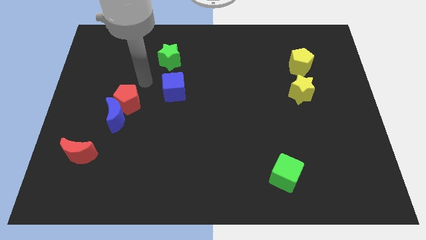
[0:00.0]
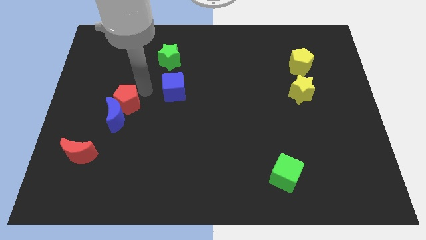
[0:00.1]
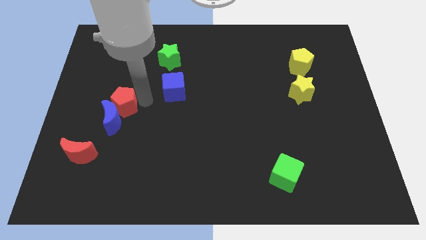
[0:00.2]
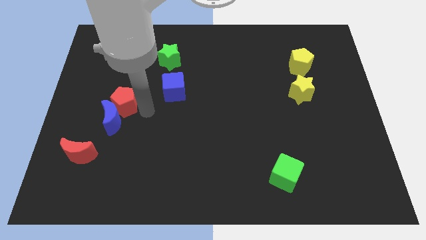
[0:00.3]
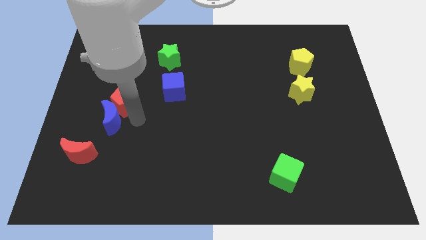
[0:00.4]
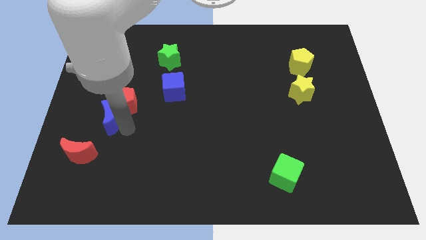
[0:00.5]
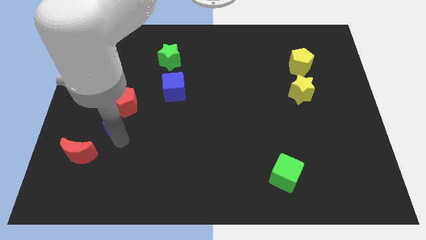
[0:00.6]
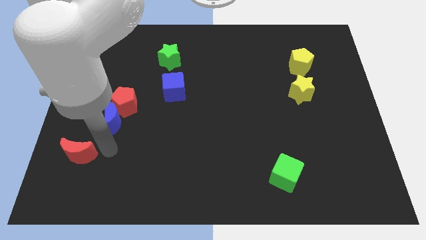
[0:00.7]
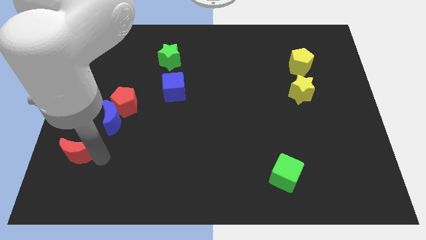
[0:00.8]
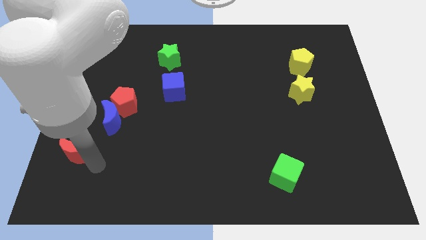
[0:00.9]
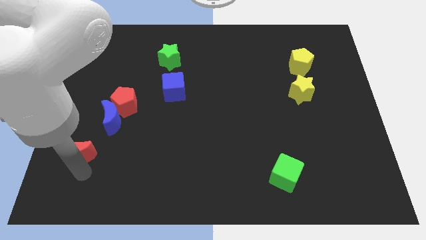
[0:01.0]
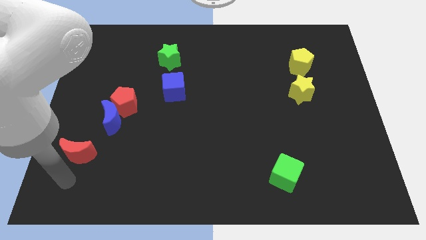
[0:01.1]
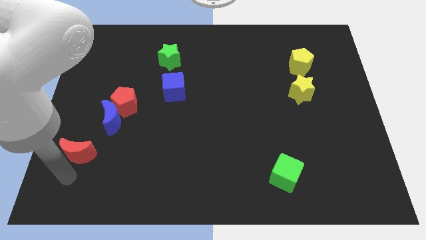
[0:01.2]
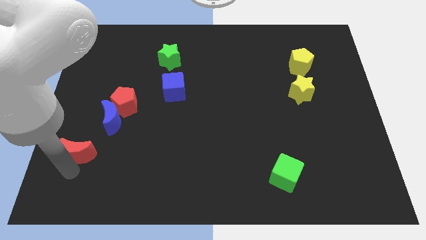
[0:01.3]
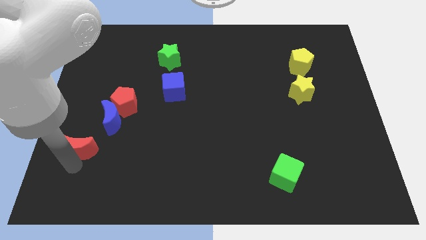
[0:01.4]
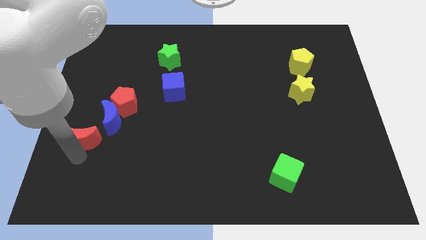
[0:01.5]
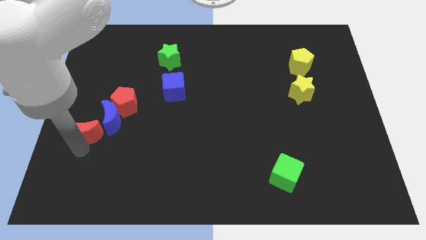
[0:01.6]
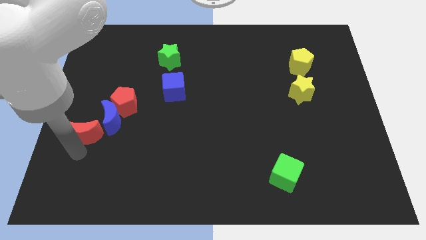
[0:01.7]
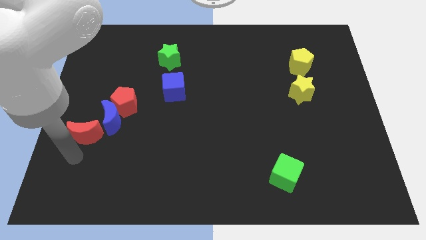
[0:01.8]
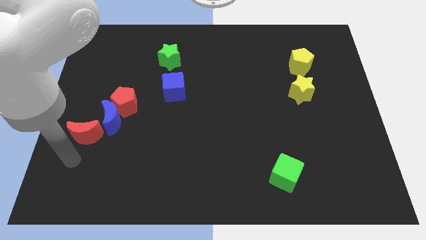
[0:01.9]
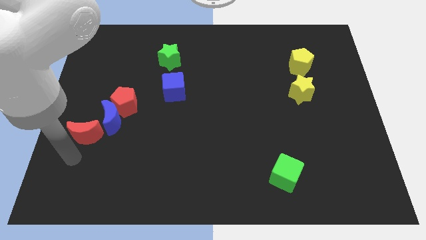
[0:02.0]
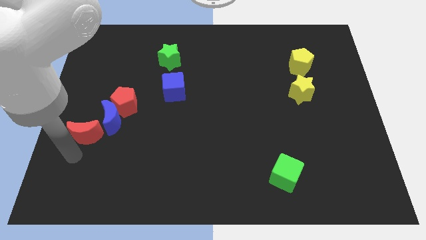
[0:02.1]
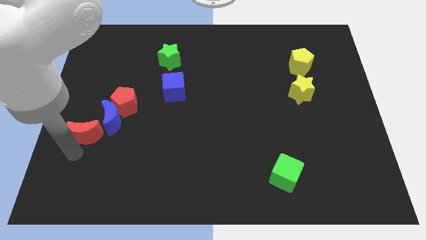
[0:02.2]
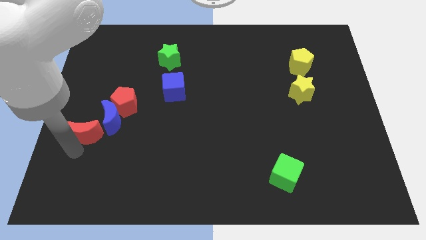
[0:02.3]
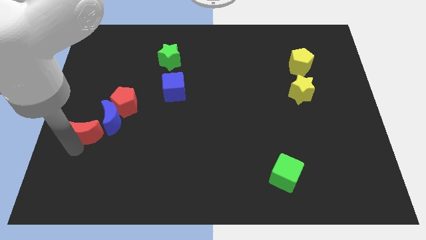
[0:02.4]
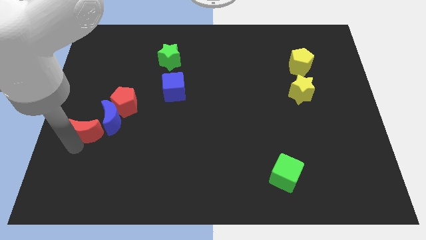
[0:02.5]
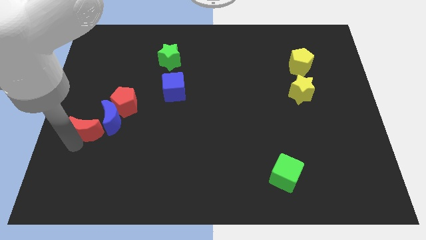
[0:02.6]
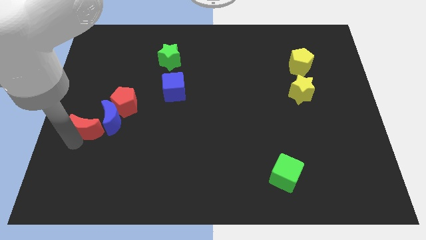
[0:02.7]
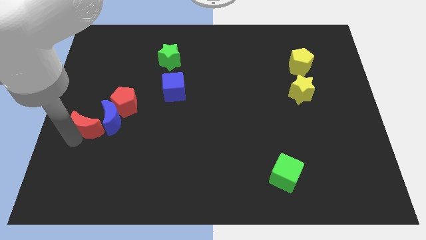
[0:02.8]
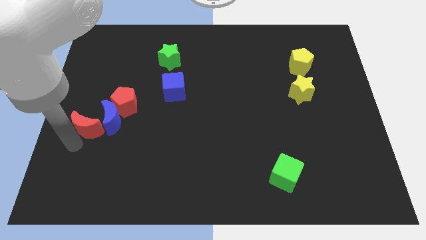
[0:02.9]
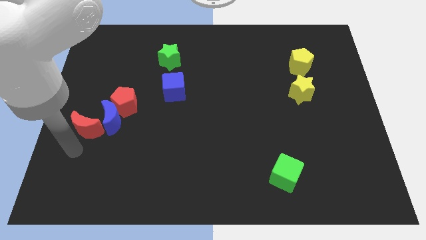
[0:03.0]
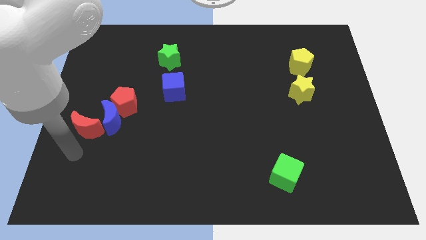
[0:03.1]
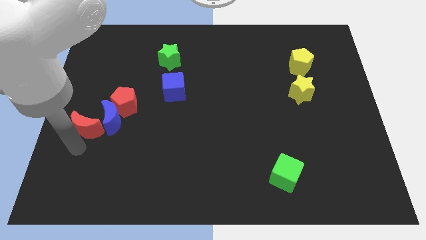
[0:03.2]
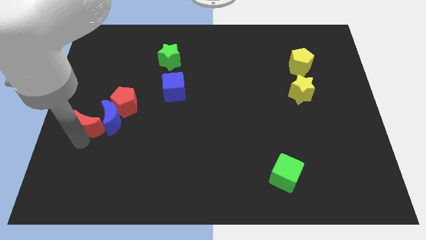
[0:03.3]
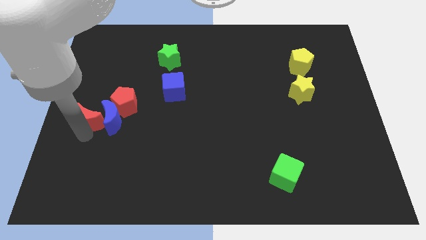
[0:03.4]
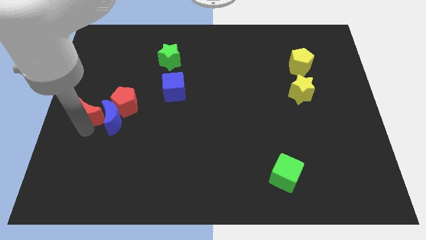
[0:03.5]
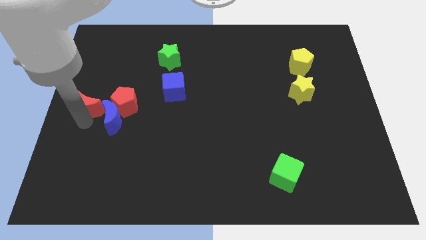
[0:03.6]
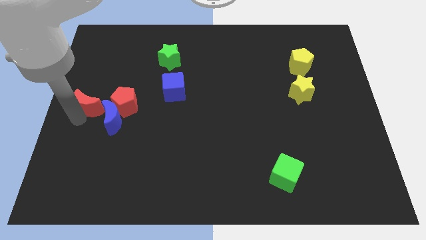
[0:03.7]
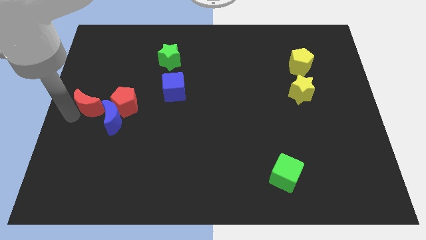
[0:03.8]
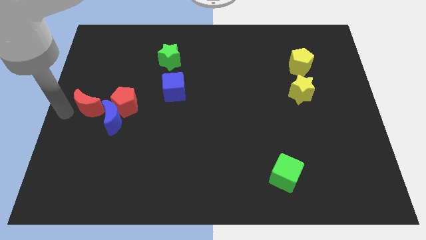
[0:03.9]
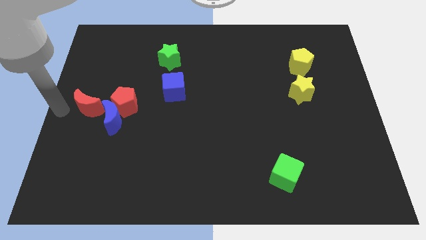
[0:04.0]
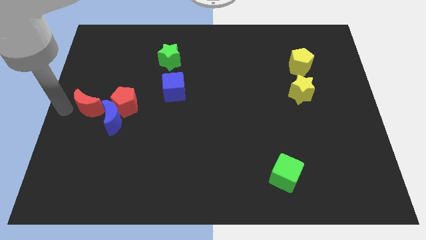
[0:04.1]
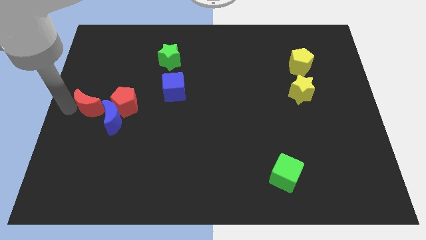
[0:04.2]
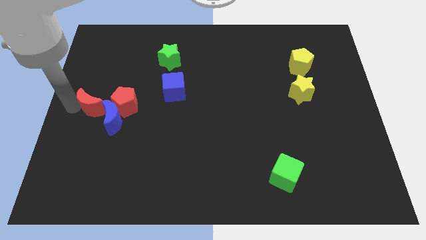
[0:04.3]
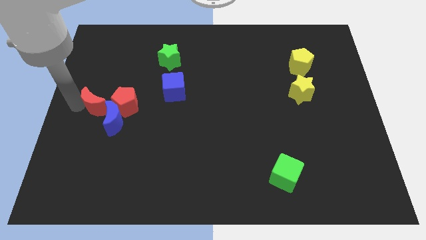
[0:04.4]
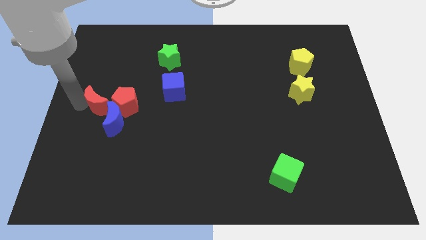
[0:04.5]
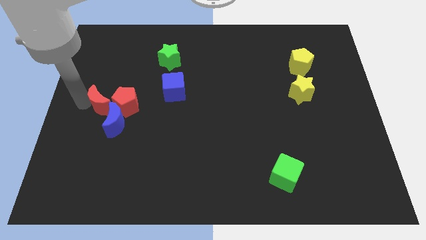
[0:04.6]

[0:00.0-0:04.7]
slide the red moon next to the red pentagon

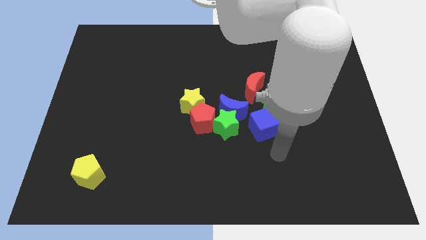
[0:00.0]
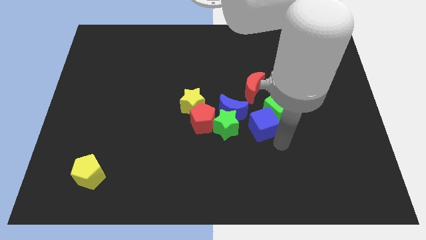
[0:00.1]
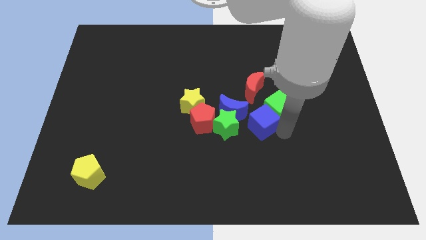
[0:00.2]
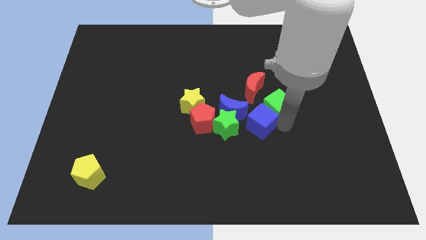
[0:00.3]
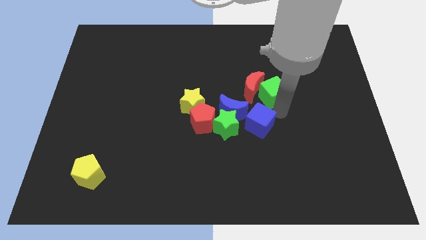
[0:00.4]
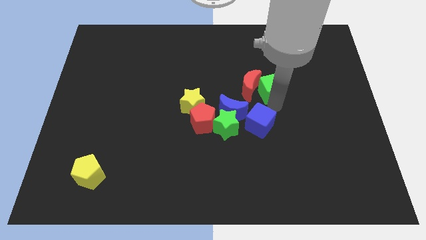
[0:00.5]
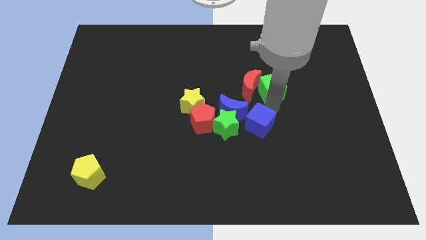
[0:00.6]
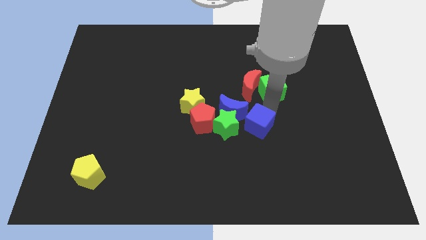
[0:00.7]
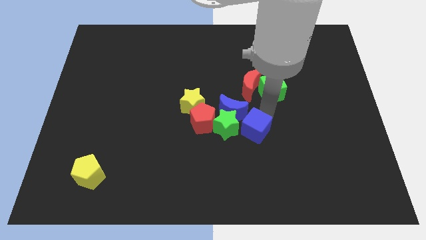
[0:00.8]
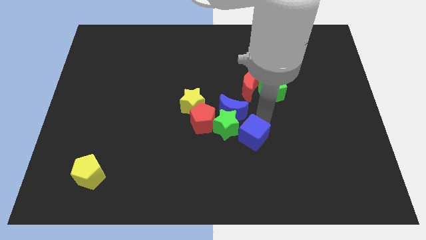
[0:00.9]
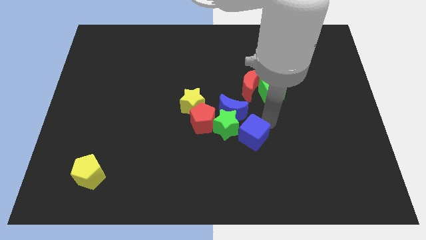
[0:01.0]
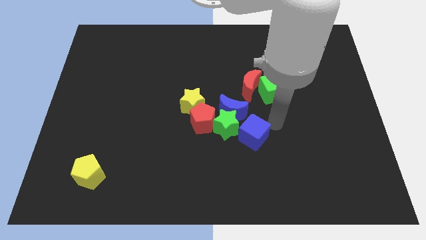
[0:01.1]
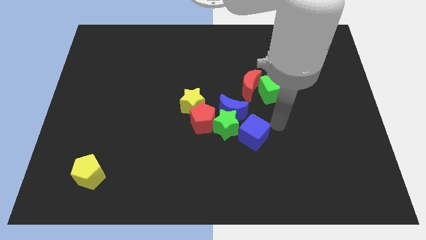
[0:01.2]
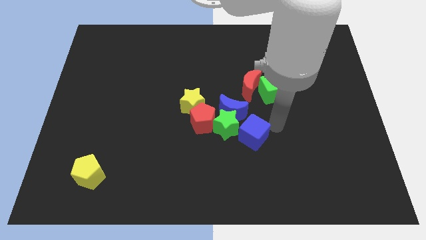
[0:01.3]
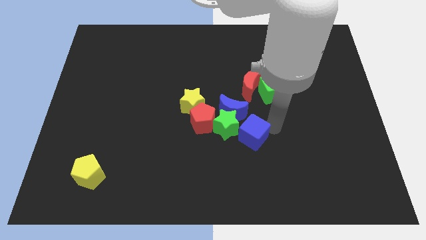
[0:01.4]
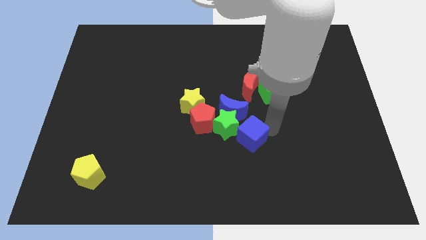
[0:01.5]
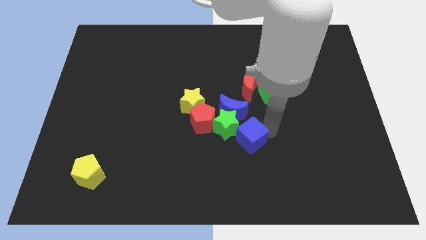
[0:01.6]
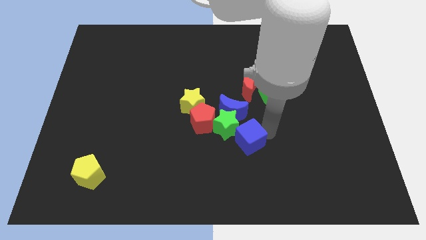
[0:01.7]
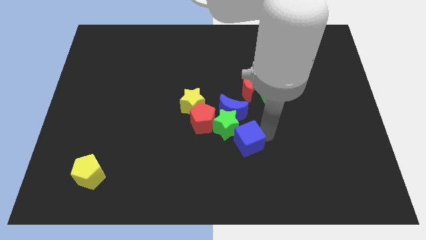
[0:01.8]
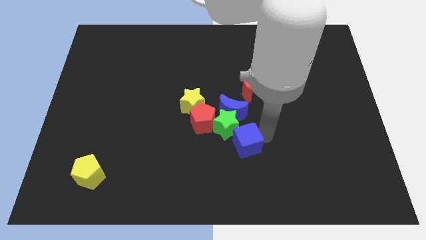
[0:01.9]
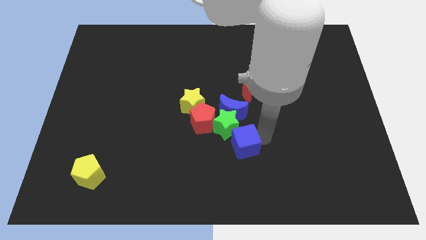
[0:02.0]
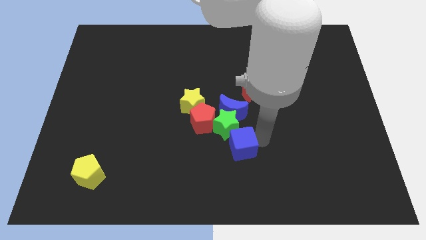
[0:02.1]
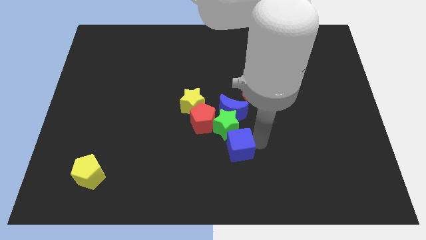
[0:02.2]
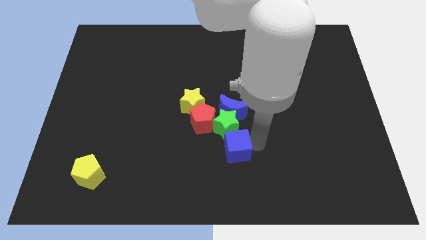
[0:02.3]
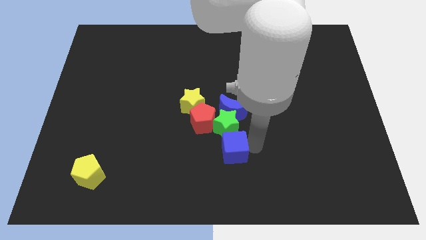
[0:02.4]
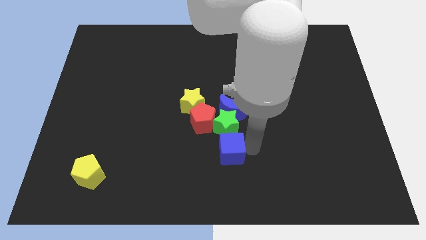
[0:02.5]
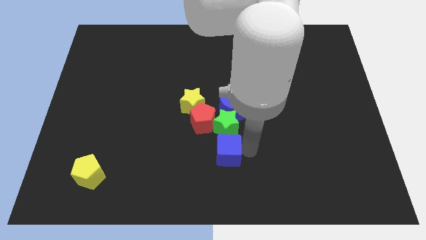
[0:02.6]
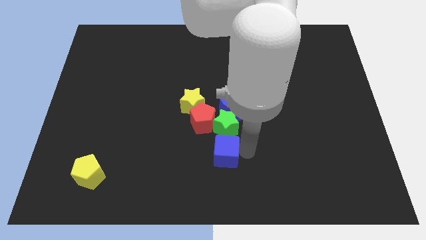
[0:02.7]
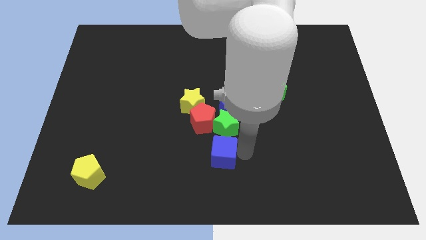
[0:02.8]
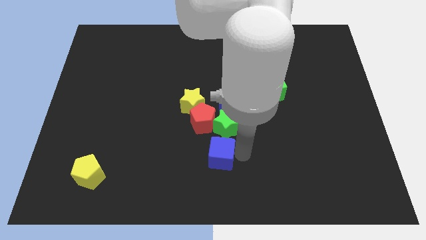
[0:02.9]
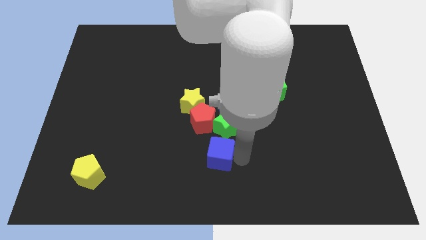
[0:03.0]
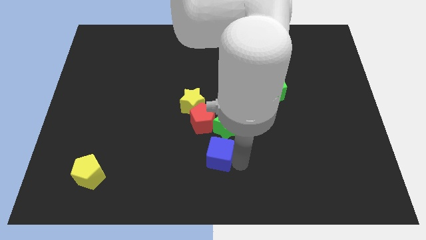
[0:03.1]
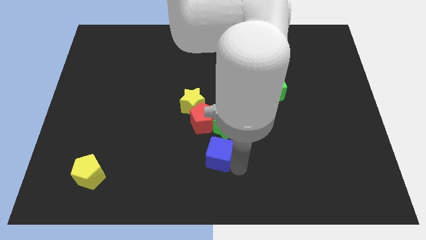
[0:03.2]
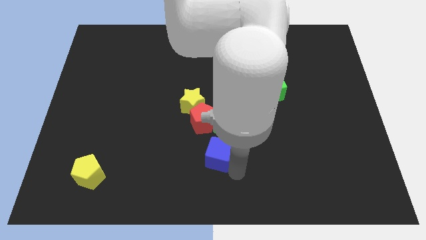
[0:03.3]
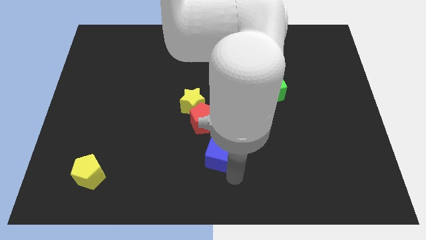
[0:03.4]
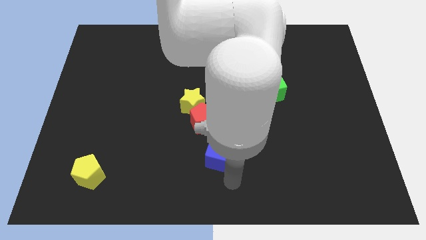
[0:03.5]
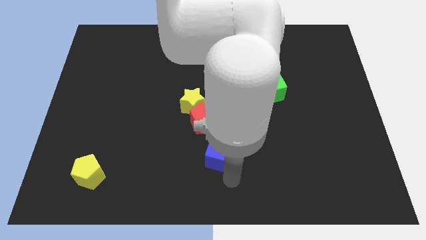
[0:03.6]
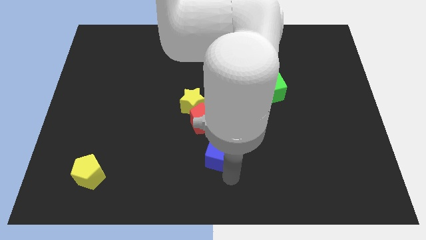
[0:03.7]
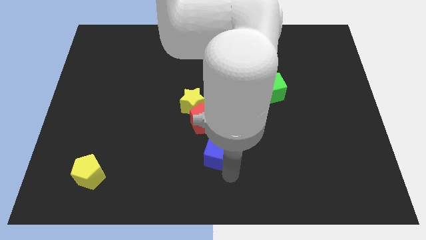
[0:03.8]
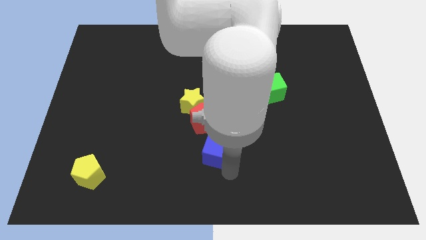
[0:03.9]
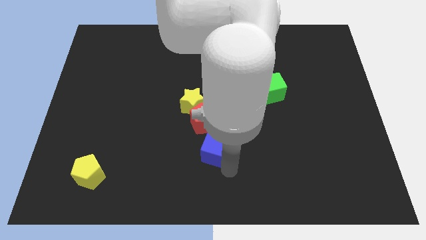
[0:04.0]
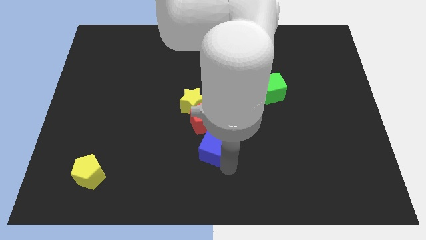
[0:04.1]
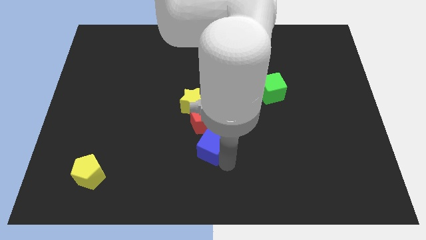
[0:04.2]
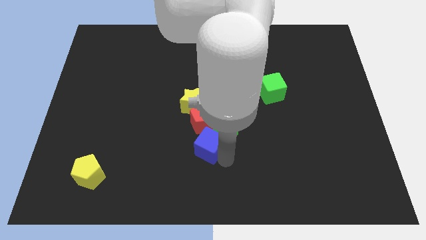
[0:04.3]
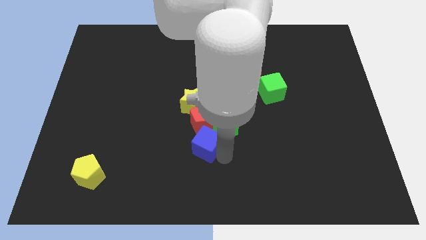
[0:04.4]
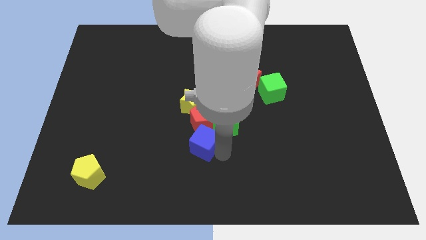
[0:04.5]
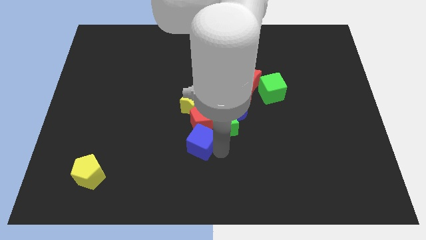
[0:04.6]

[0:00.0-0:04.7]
push the blue cube to the red pentagon
